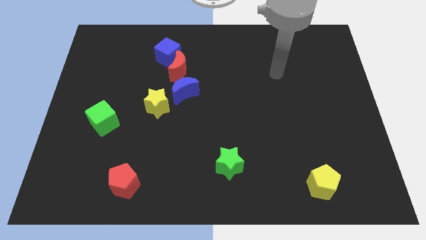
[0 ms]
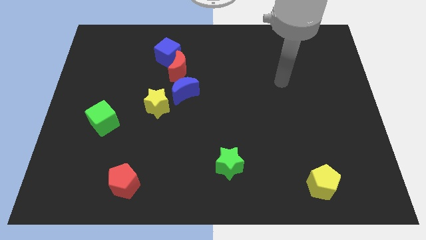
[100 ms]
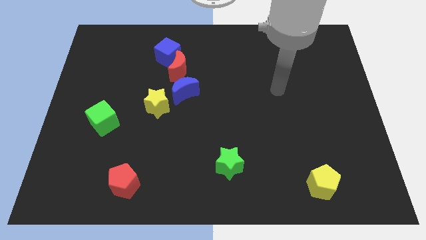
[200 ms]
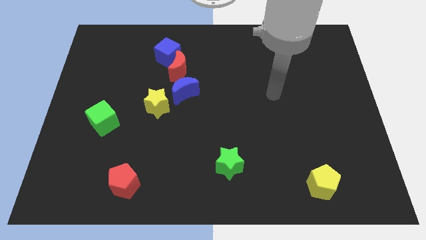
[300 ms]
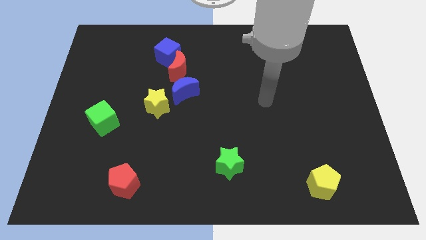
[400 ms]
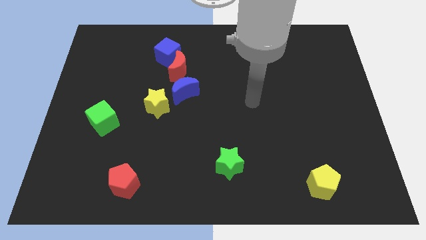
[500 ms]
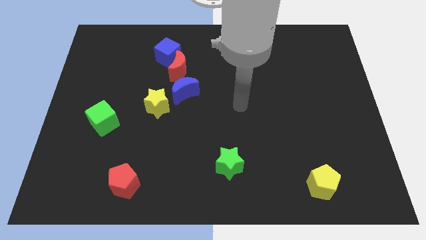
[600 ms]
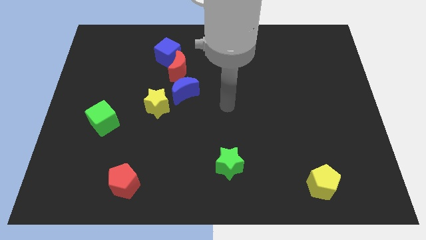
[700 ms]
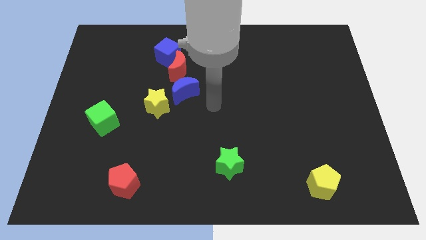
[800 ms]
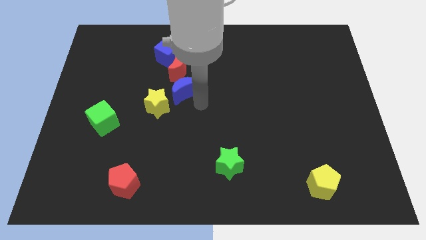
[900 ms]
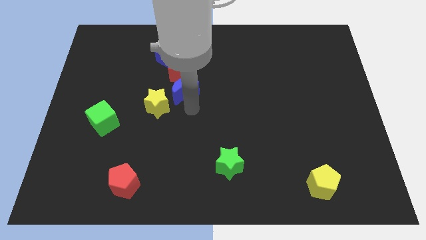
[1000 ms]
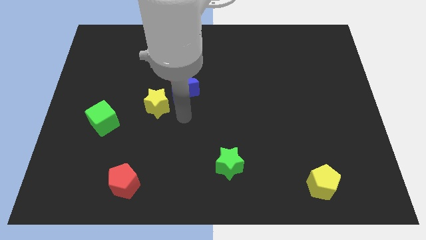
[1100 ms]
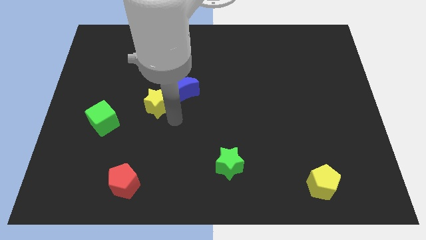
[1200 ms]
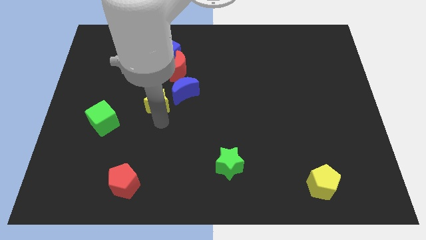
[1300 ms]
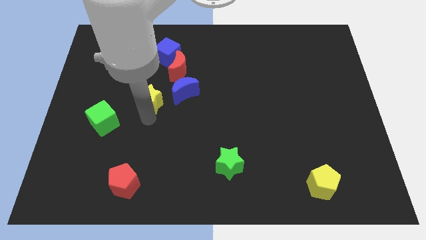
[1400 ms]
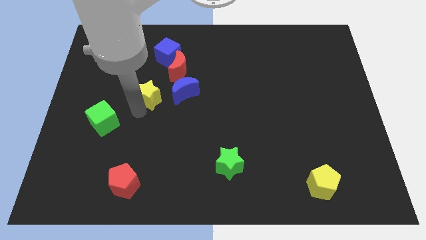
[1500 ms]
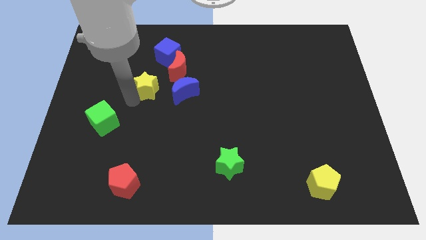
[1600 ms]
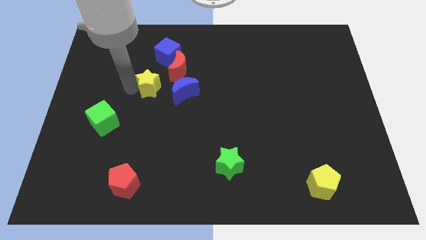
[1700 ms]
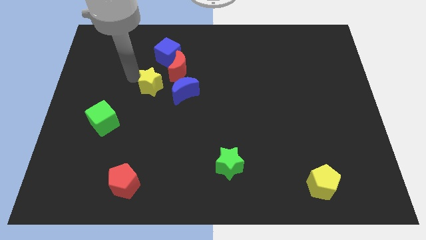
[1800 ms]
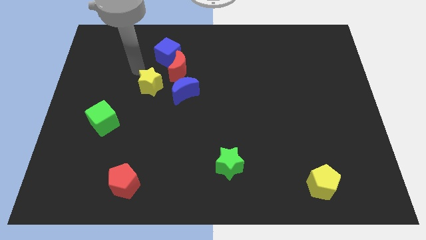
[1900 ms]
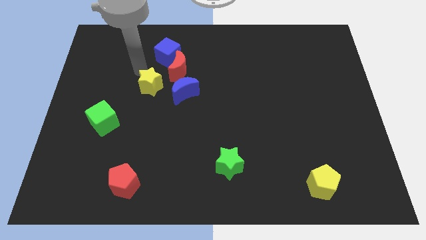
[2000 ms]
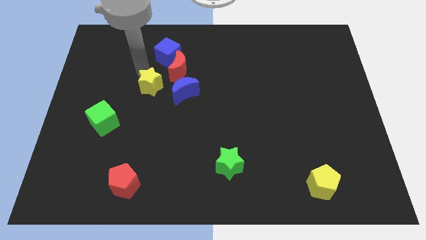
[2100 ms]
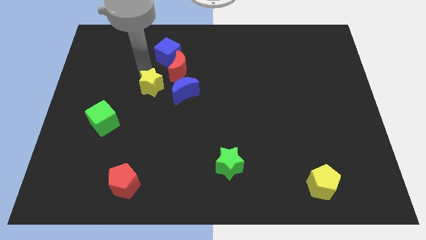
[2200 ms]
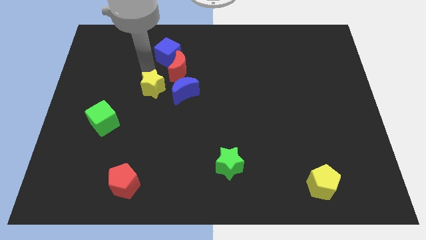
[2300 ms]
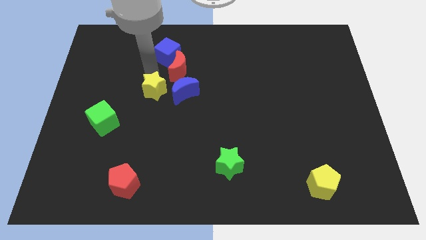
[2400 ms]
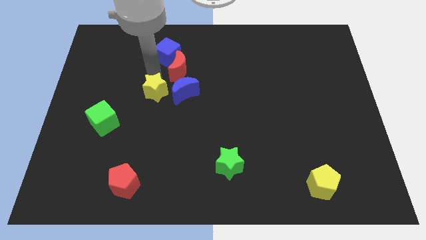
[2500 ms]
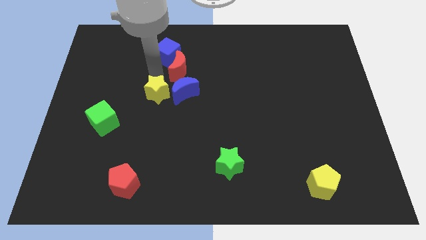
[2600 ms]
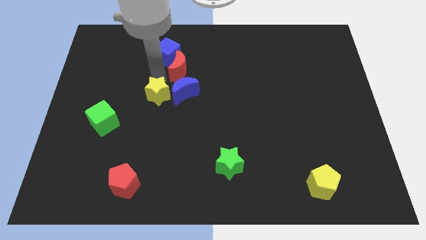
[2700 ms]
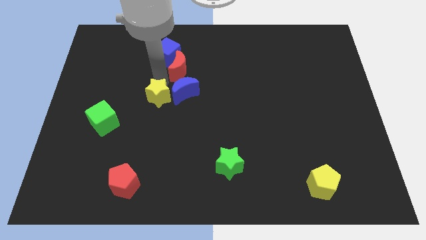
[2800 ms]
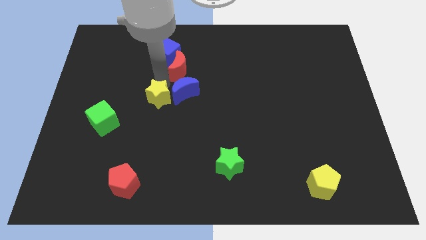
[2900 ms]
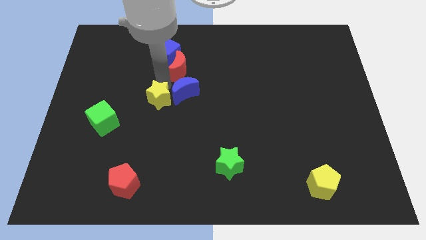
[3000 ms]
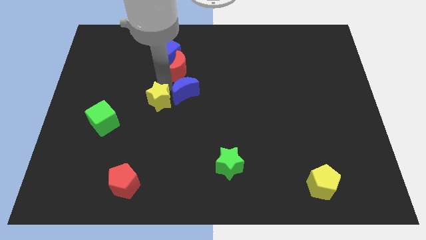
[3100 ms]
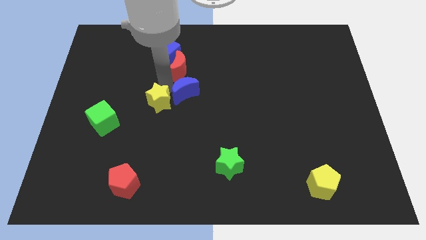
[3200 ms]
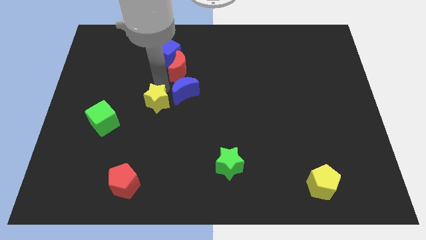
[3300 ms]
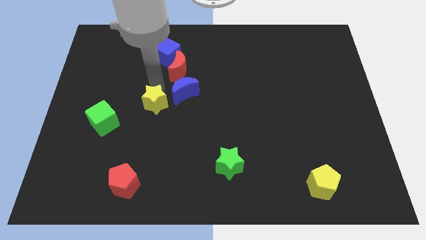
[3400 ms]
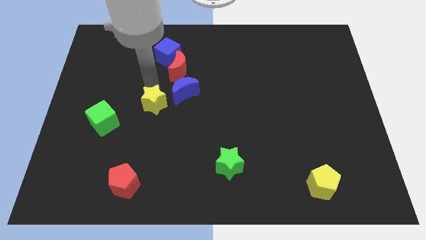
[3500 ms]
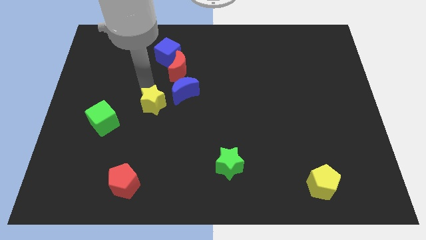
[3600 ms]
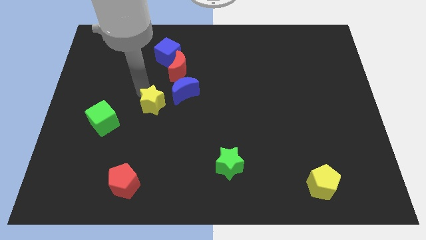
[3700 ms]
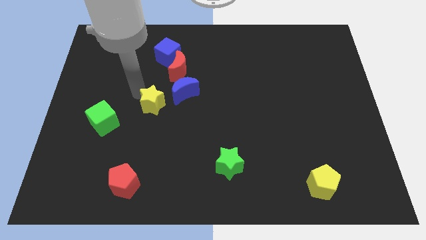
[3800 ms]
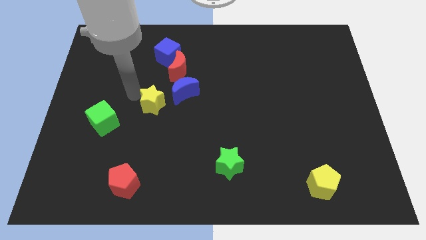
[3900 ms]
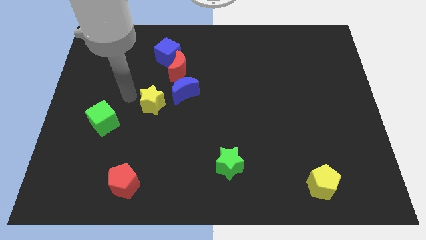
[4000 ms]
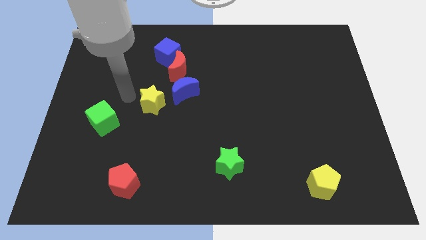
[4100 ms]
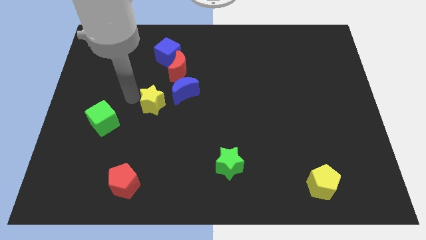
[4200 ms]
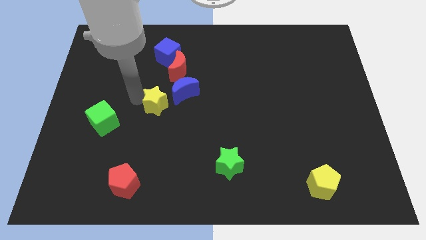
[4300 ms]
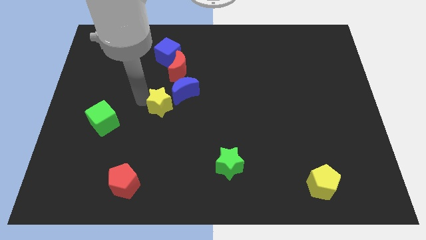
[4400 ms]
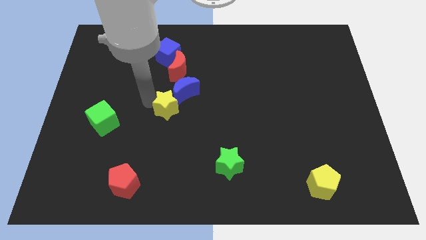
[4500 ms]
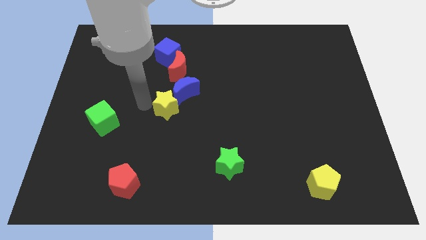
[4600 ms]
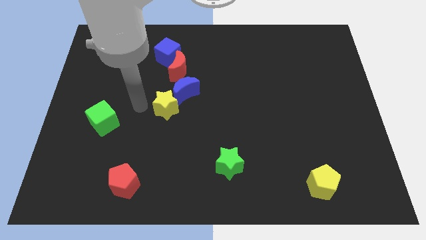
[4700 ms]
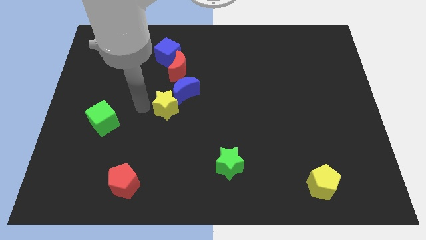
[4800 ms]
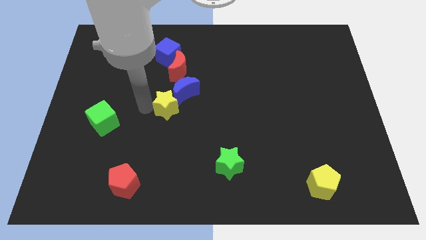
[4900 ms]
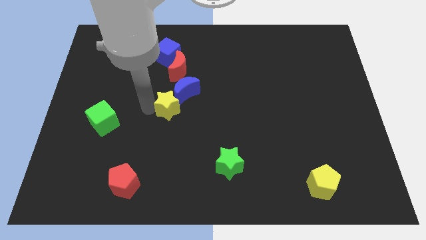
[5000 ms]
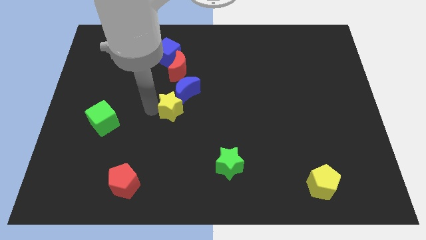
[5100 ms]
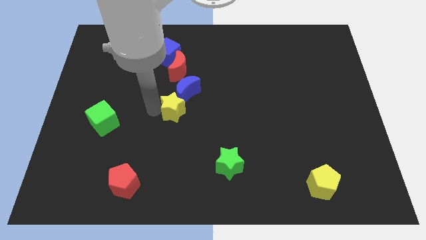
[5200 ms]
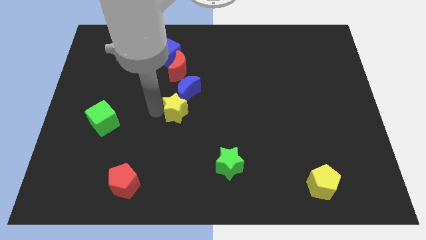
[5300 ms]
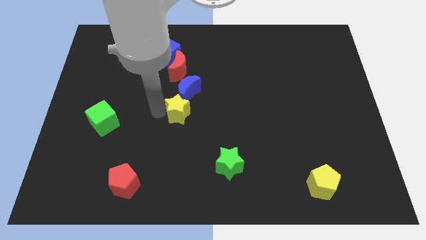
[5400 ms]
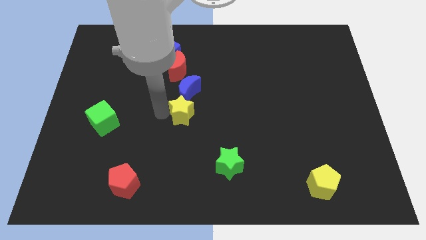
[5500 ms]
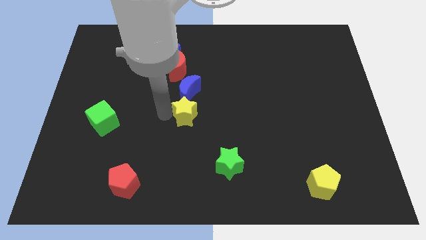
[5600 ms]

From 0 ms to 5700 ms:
push the yellow star a little right

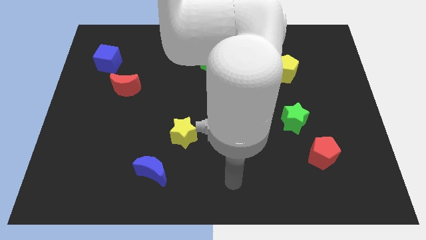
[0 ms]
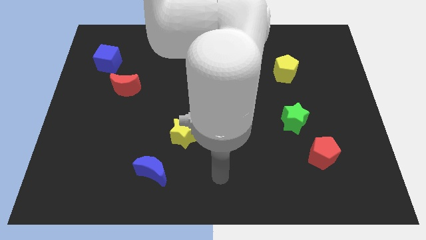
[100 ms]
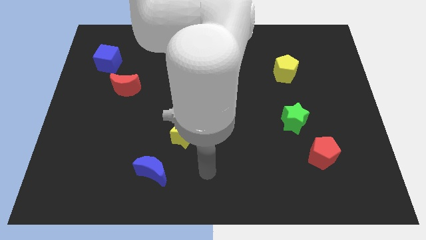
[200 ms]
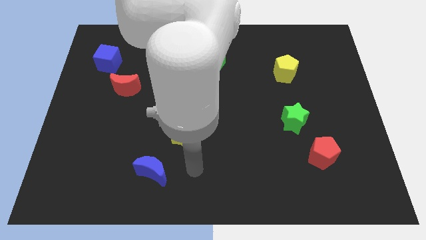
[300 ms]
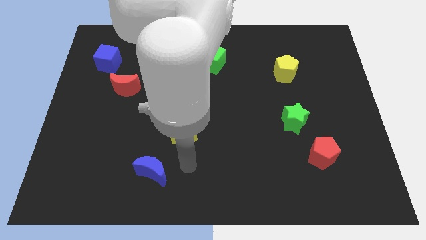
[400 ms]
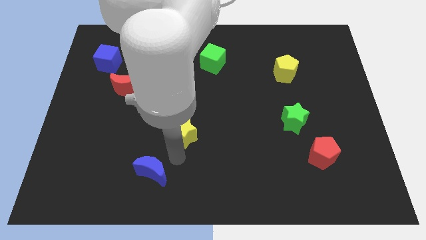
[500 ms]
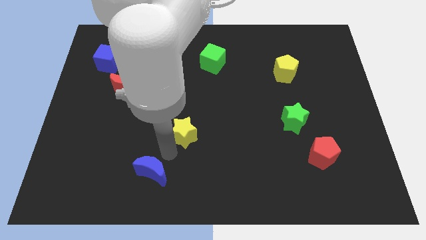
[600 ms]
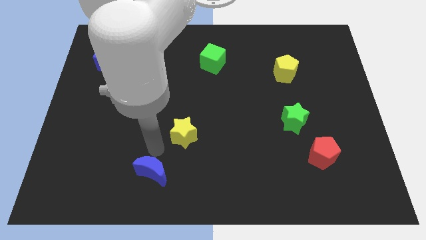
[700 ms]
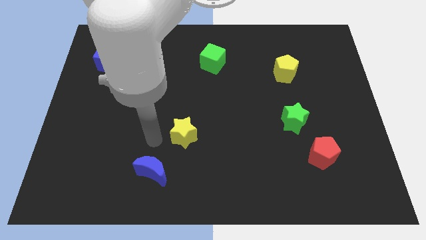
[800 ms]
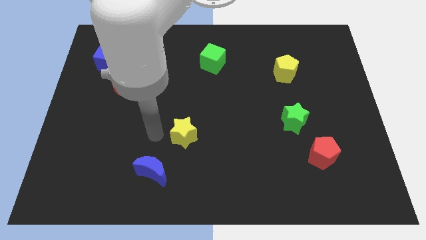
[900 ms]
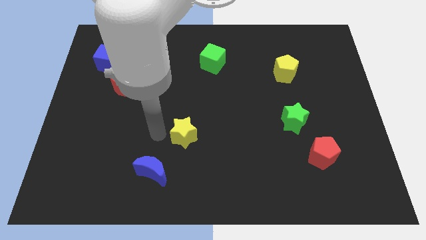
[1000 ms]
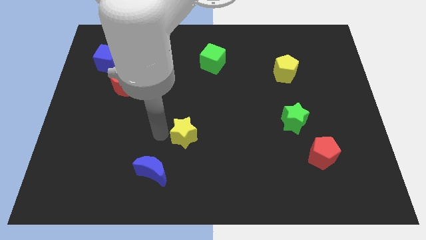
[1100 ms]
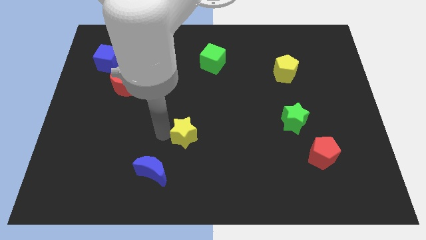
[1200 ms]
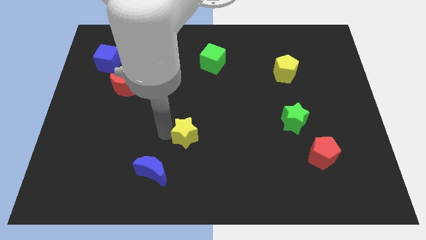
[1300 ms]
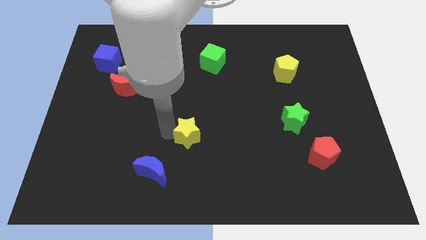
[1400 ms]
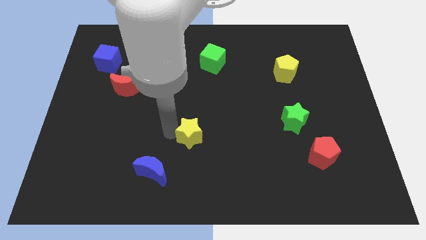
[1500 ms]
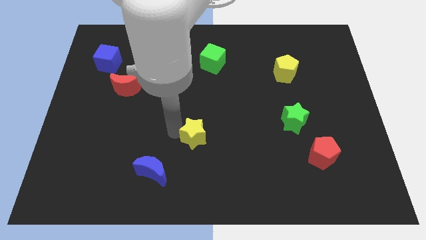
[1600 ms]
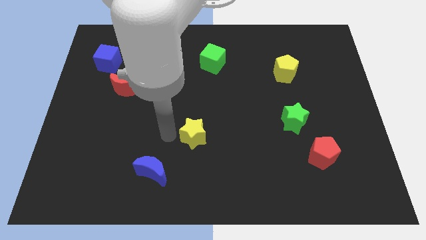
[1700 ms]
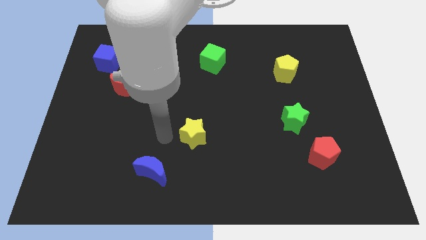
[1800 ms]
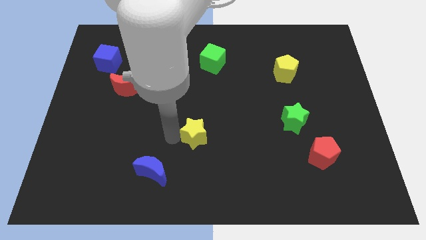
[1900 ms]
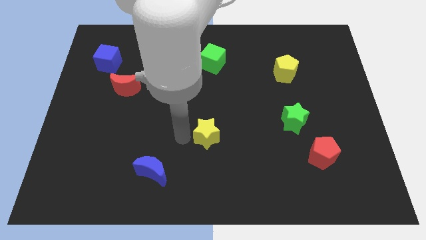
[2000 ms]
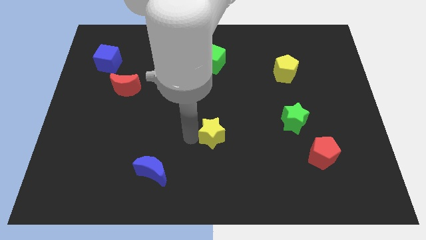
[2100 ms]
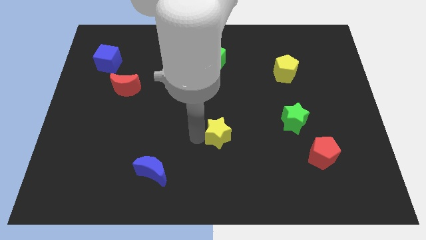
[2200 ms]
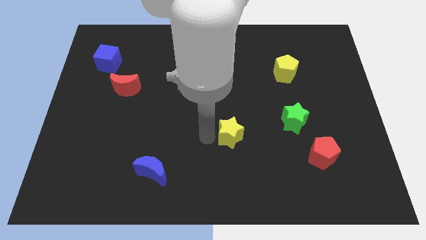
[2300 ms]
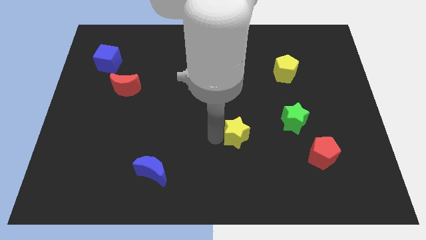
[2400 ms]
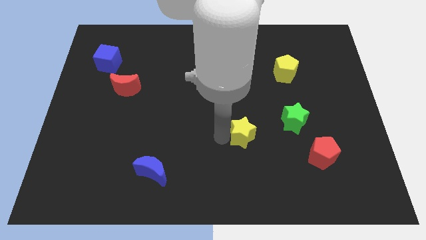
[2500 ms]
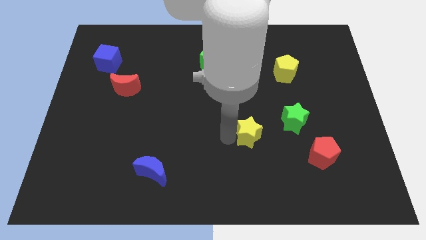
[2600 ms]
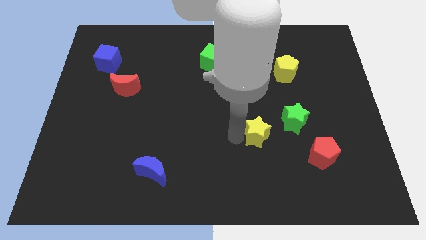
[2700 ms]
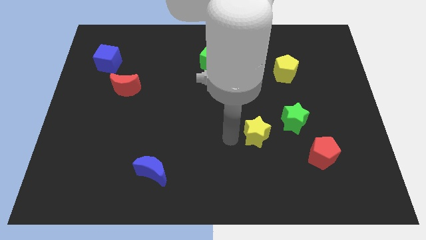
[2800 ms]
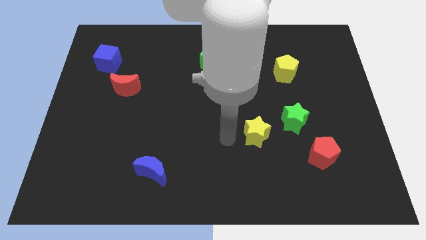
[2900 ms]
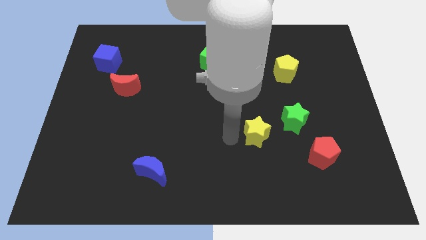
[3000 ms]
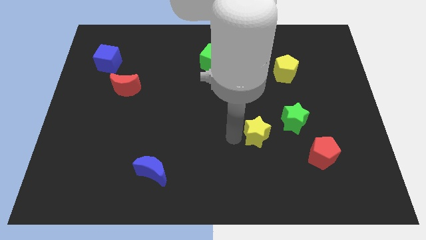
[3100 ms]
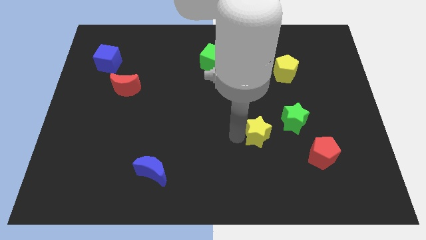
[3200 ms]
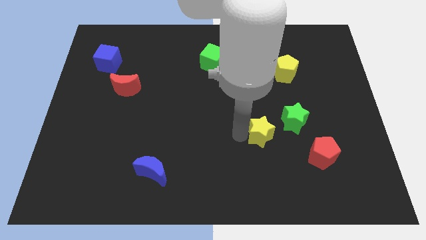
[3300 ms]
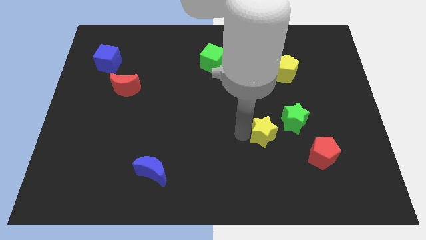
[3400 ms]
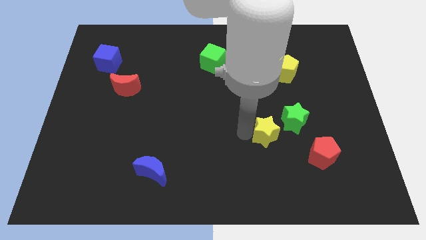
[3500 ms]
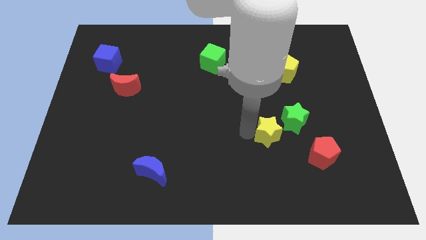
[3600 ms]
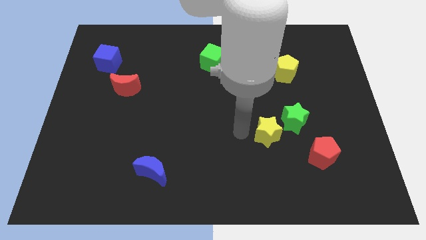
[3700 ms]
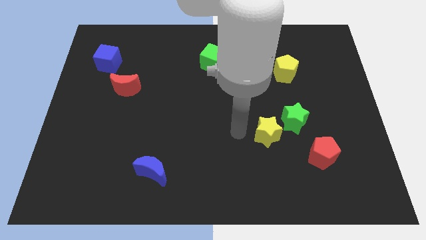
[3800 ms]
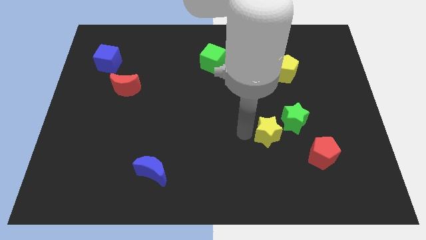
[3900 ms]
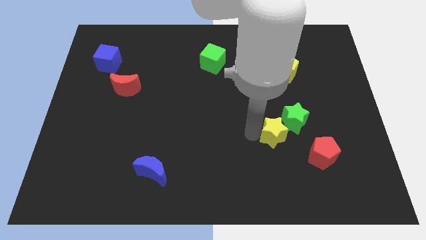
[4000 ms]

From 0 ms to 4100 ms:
push the yellow star to the right
